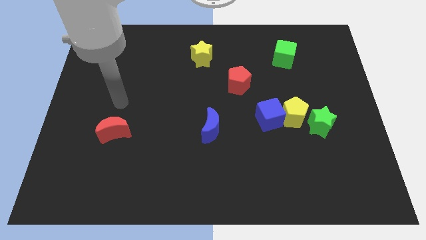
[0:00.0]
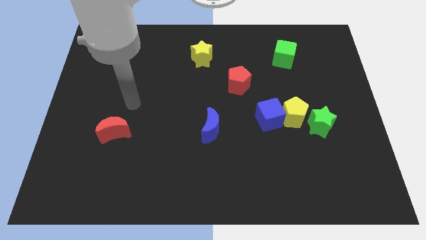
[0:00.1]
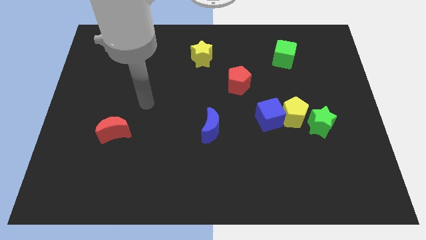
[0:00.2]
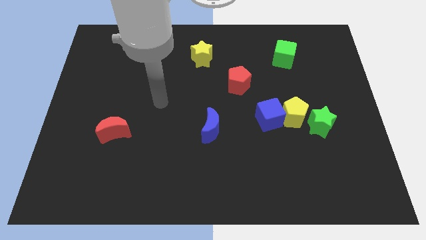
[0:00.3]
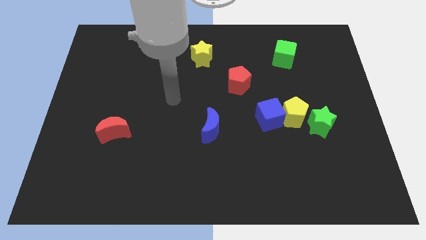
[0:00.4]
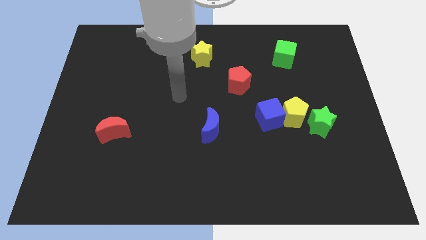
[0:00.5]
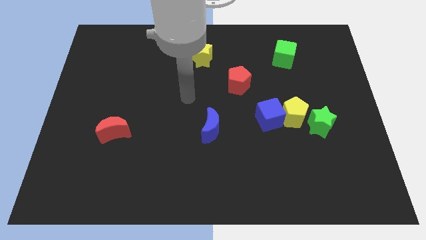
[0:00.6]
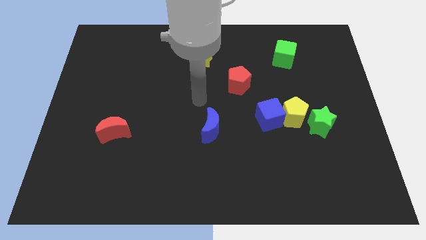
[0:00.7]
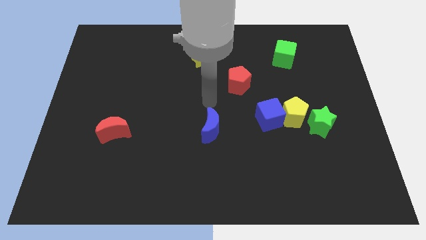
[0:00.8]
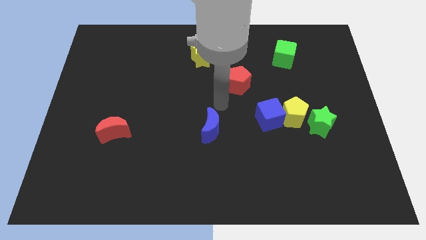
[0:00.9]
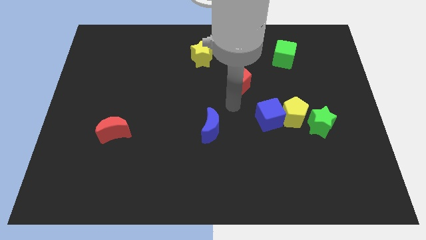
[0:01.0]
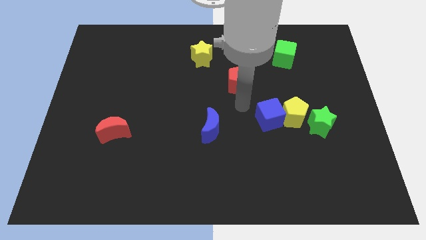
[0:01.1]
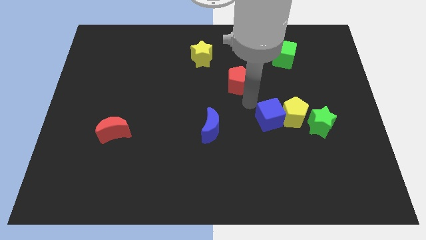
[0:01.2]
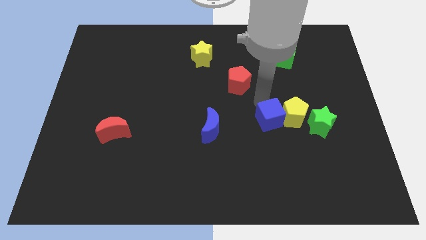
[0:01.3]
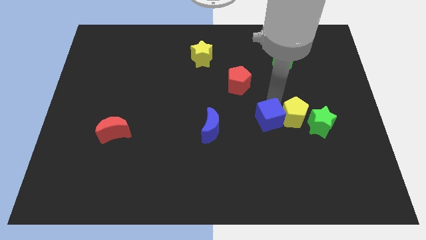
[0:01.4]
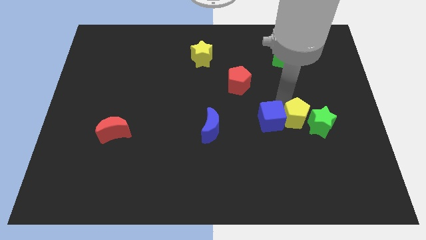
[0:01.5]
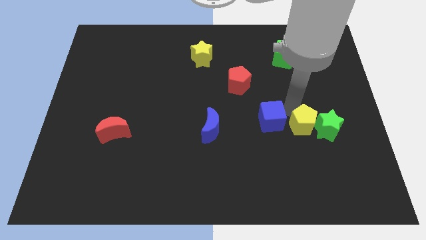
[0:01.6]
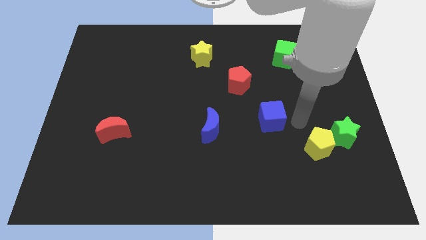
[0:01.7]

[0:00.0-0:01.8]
move the blue cube away from the yellow pentagon

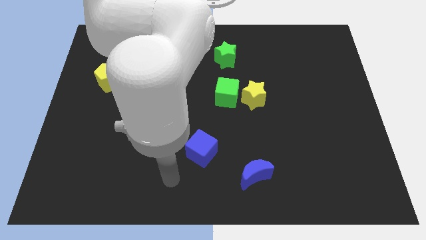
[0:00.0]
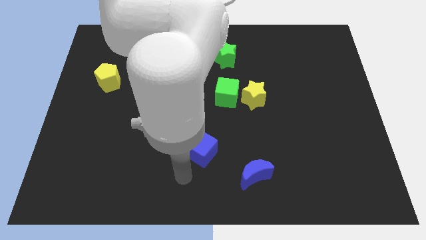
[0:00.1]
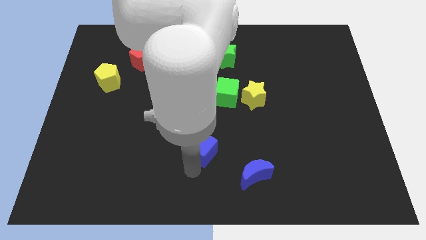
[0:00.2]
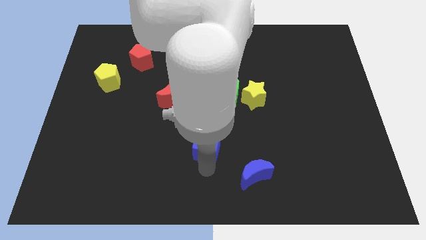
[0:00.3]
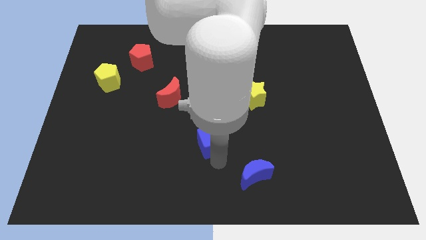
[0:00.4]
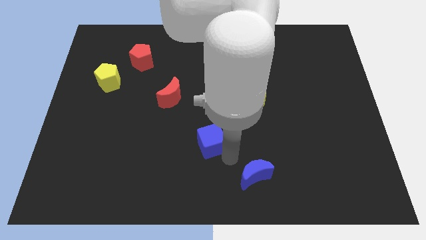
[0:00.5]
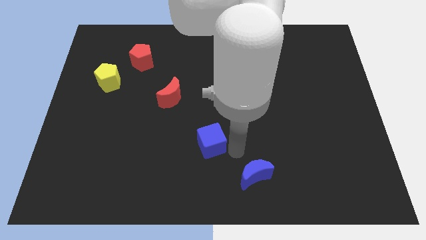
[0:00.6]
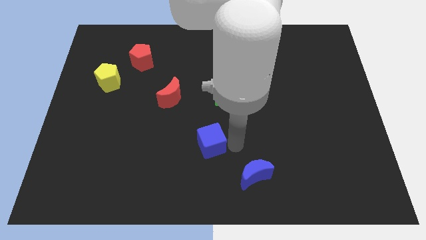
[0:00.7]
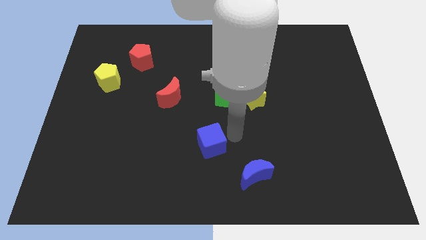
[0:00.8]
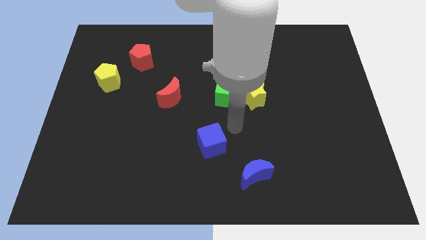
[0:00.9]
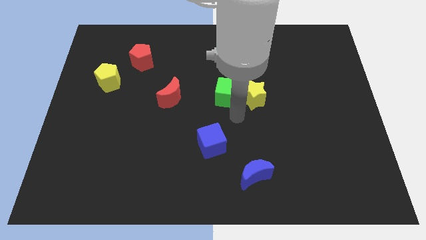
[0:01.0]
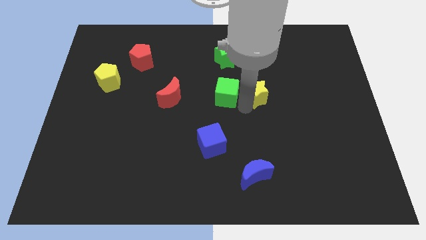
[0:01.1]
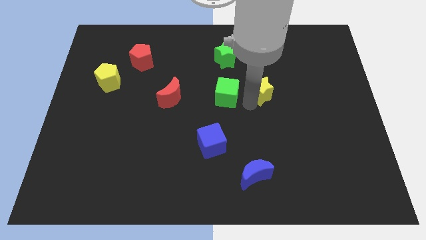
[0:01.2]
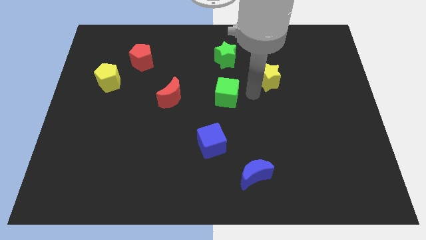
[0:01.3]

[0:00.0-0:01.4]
move the green cube away from the yellow star

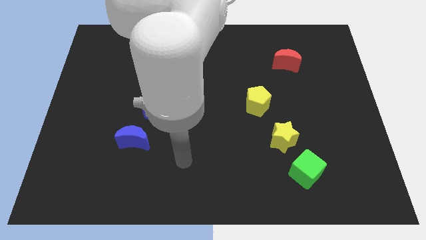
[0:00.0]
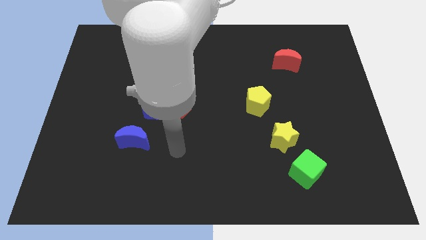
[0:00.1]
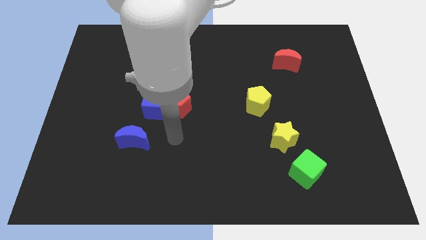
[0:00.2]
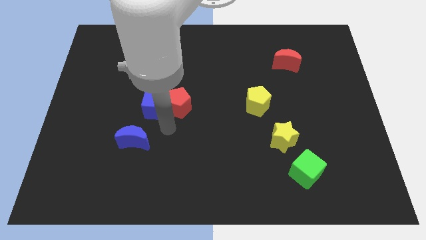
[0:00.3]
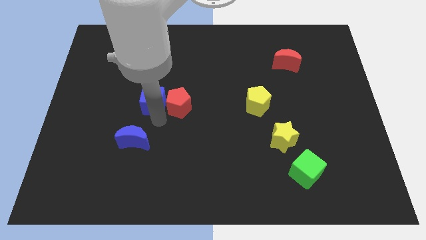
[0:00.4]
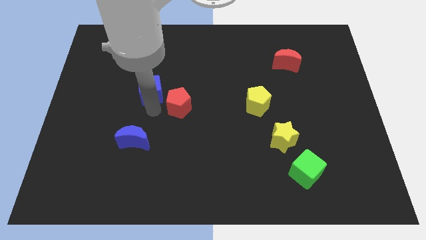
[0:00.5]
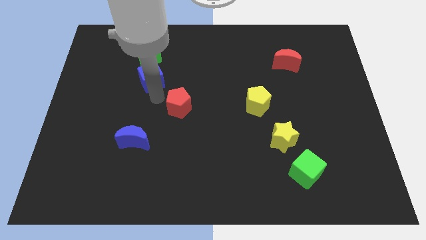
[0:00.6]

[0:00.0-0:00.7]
pull the red pentagon apart from the blue cube

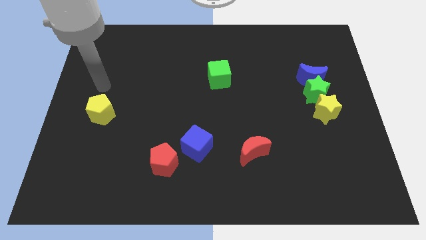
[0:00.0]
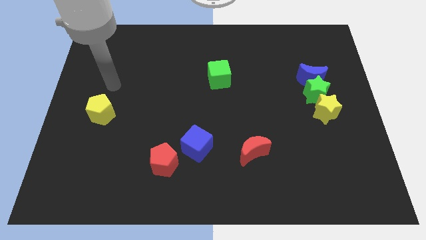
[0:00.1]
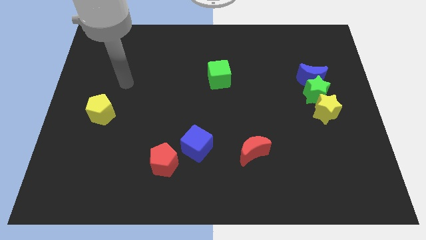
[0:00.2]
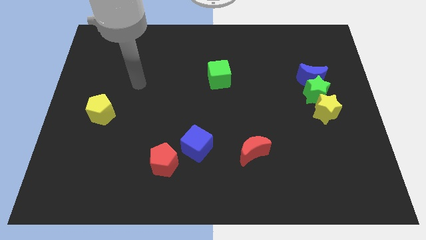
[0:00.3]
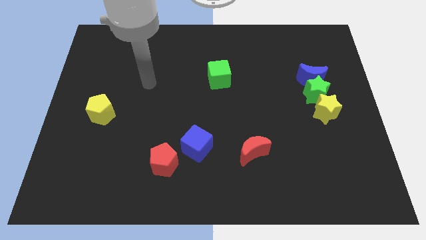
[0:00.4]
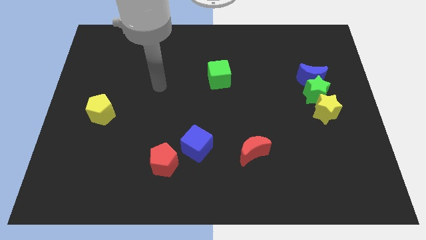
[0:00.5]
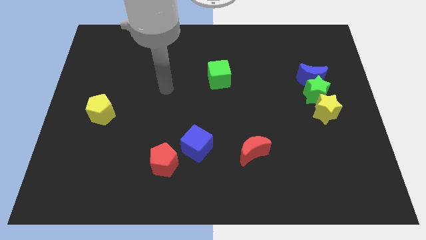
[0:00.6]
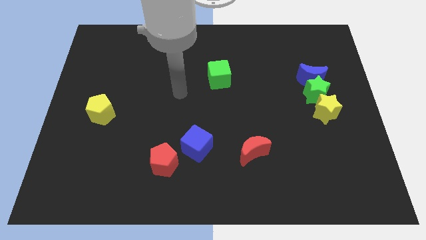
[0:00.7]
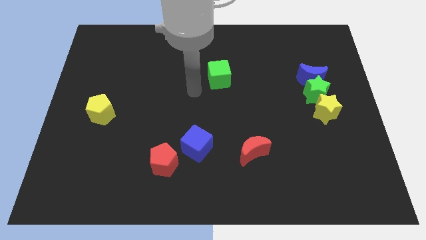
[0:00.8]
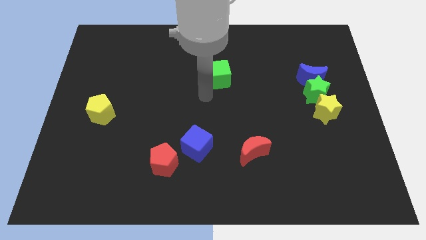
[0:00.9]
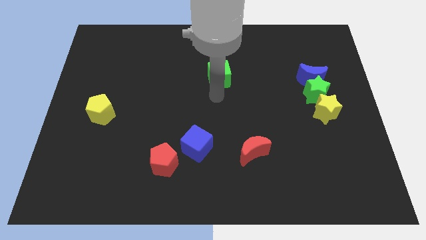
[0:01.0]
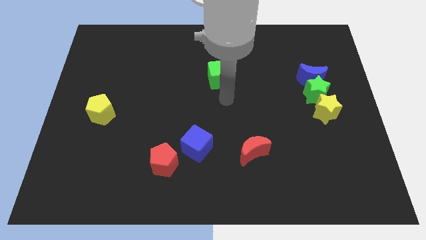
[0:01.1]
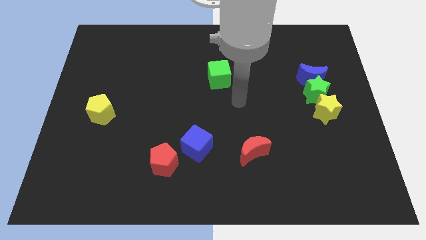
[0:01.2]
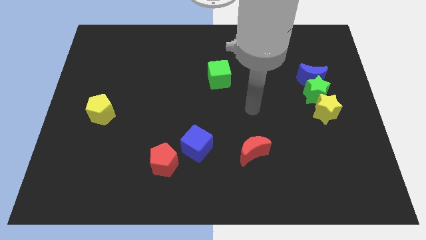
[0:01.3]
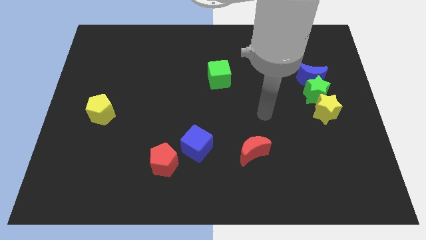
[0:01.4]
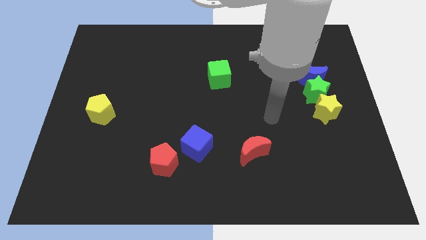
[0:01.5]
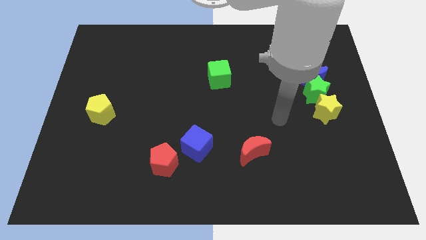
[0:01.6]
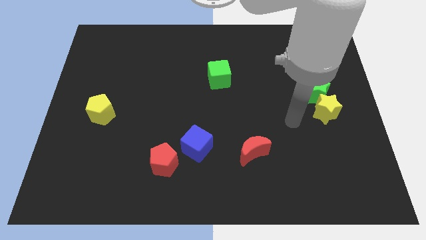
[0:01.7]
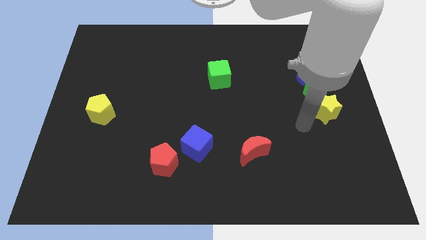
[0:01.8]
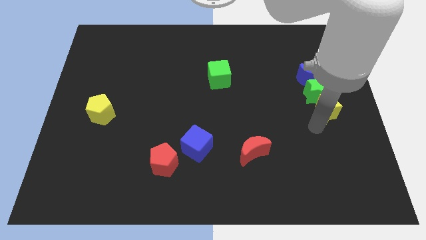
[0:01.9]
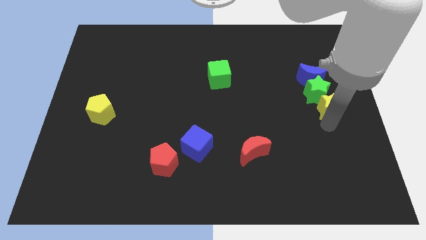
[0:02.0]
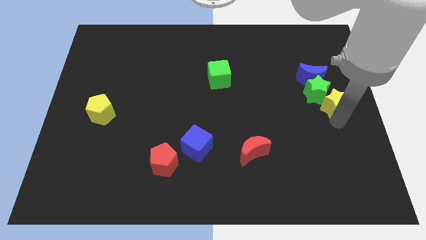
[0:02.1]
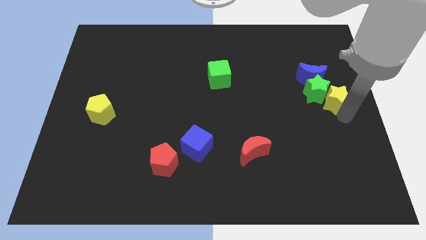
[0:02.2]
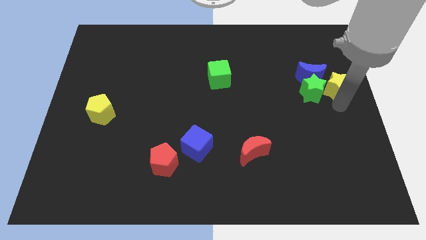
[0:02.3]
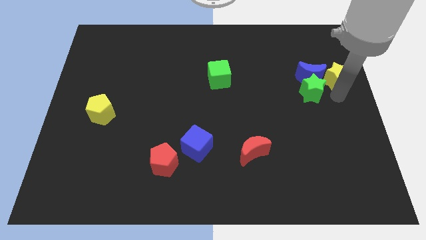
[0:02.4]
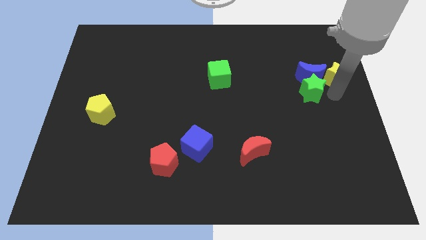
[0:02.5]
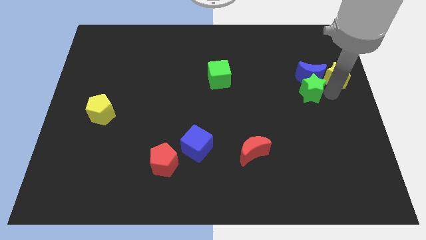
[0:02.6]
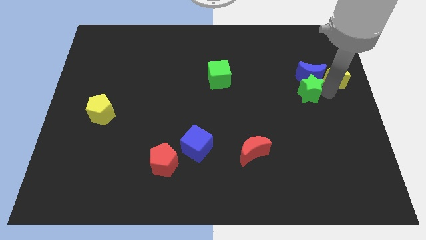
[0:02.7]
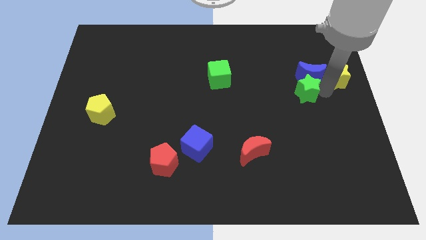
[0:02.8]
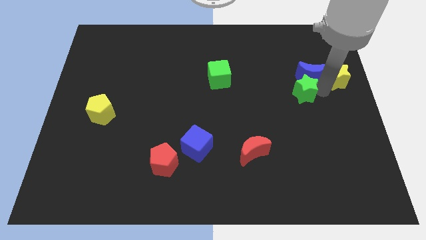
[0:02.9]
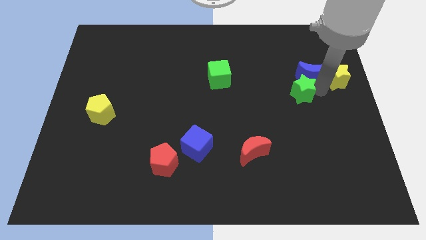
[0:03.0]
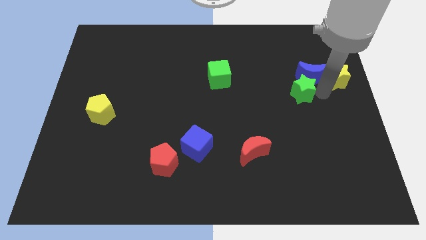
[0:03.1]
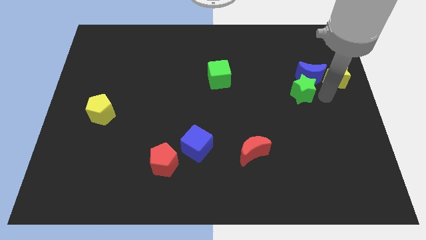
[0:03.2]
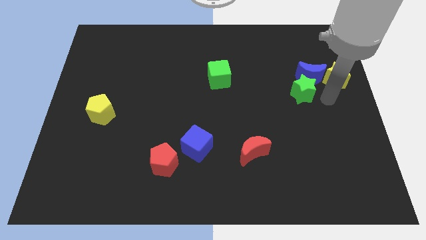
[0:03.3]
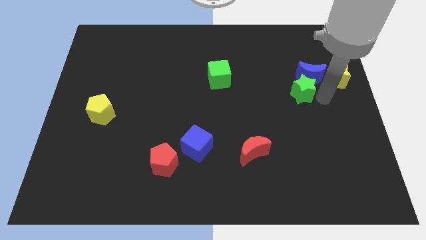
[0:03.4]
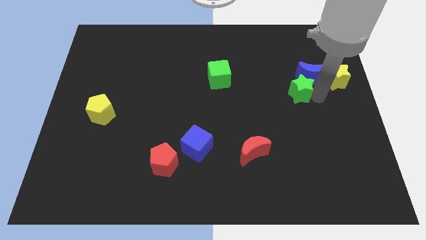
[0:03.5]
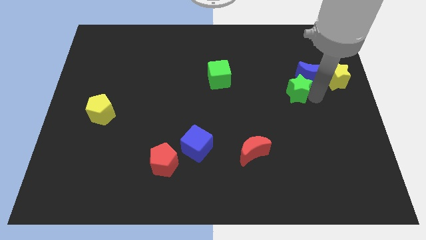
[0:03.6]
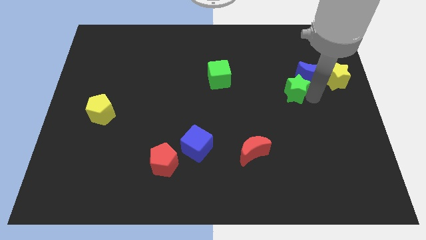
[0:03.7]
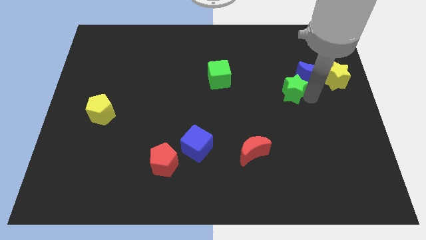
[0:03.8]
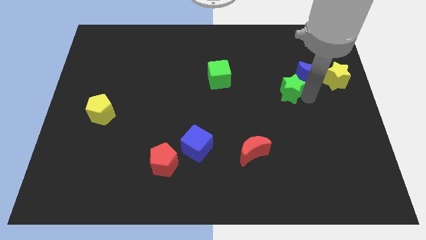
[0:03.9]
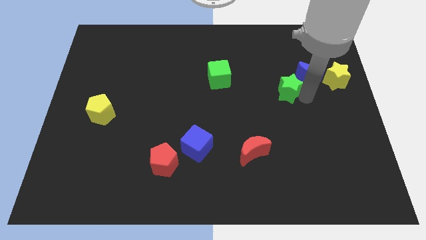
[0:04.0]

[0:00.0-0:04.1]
separate the green star from the blue moon and yellow star

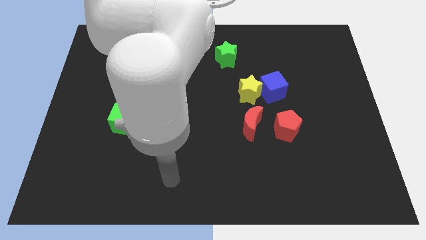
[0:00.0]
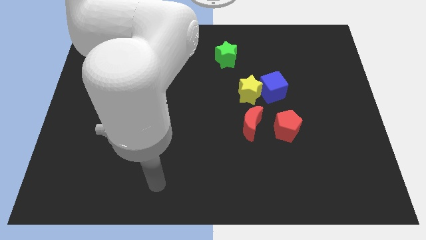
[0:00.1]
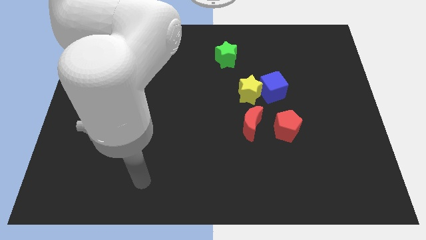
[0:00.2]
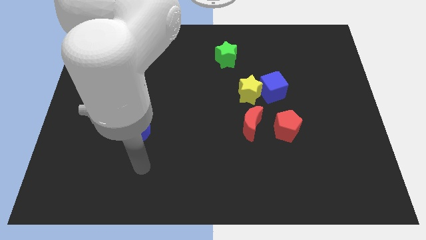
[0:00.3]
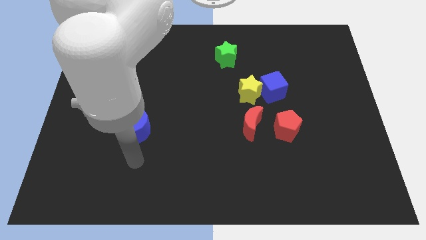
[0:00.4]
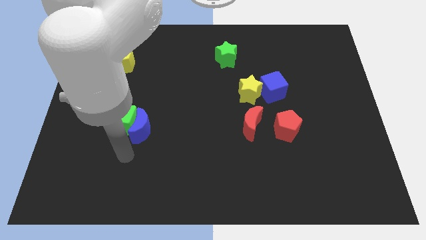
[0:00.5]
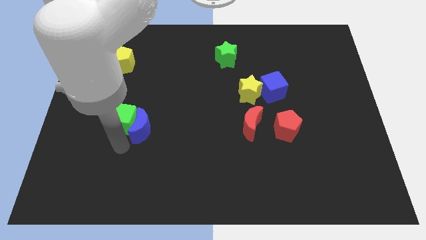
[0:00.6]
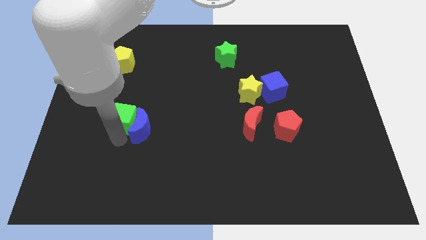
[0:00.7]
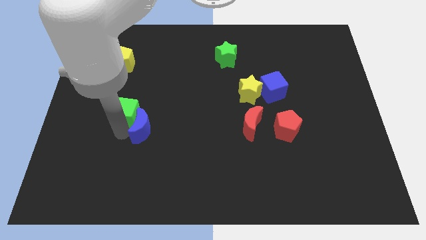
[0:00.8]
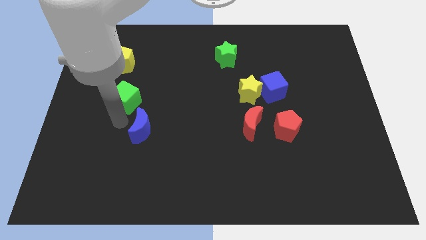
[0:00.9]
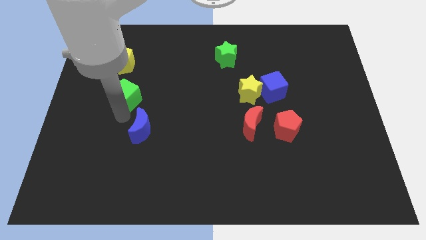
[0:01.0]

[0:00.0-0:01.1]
separate the blue moon from the green cube

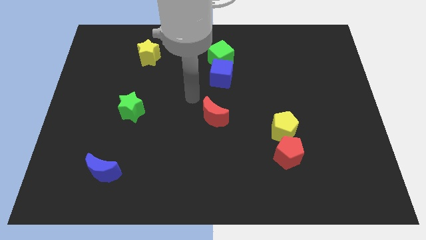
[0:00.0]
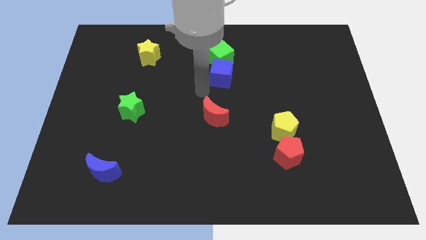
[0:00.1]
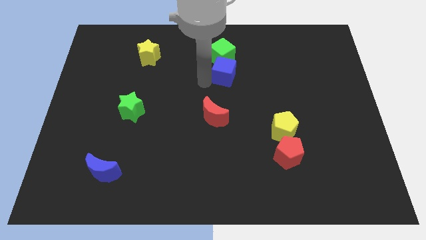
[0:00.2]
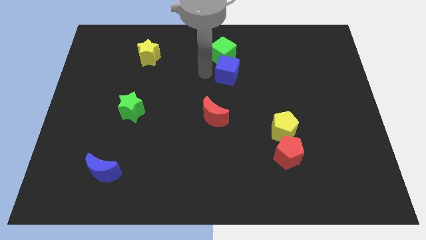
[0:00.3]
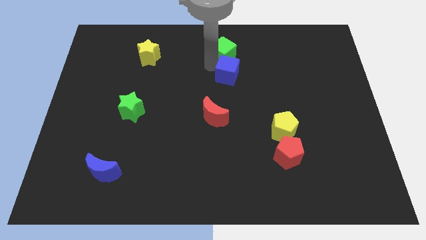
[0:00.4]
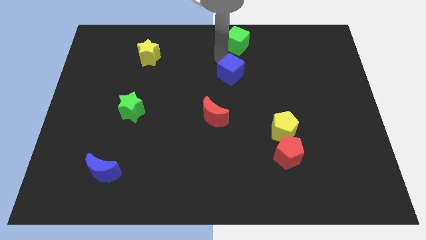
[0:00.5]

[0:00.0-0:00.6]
separate the blue cube from the green cube
